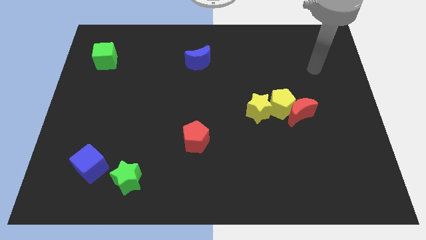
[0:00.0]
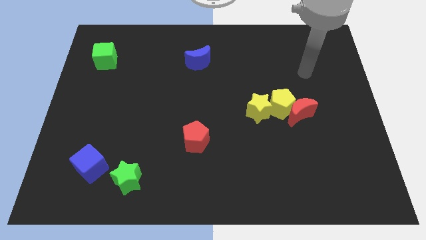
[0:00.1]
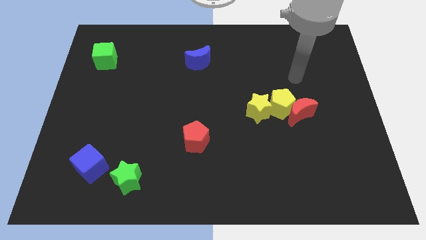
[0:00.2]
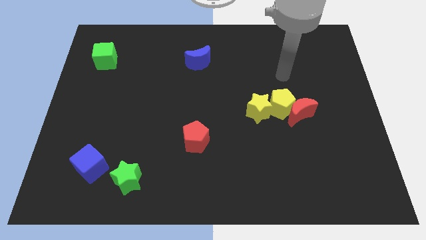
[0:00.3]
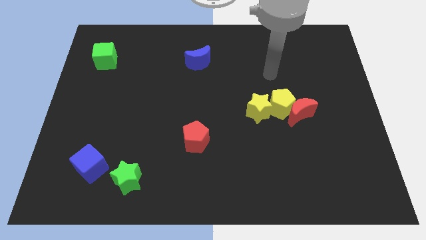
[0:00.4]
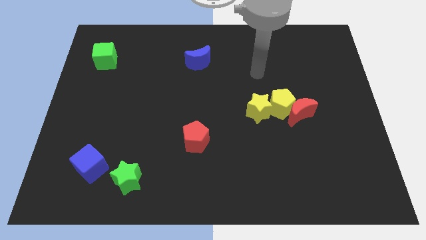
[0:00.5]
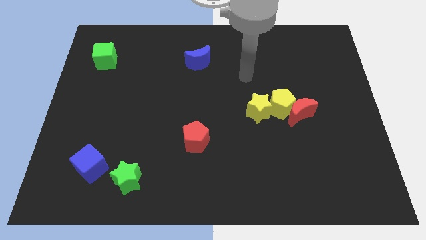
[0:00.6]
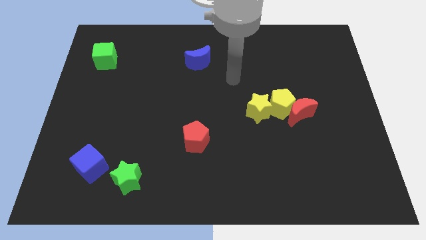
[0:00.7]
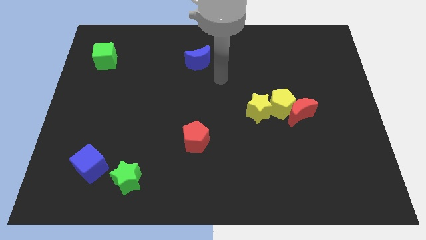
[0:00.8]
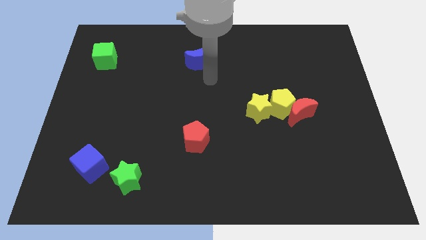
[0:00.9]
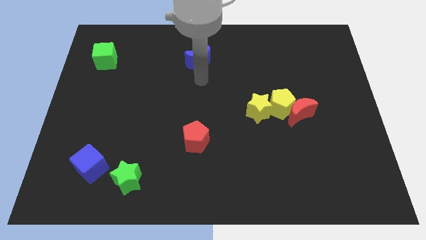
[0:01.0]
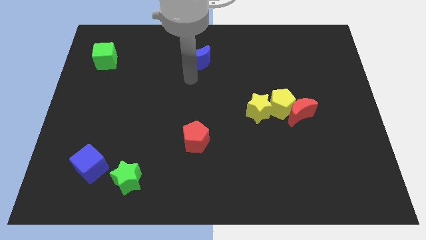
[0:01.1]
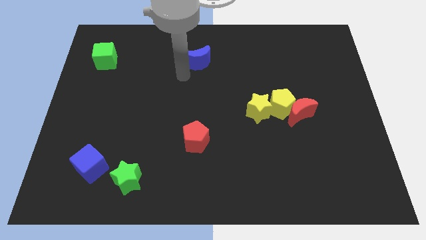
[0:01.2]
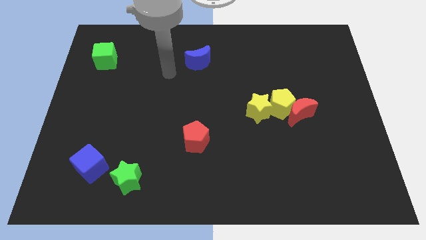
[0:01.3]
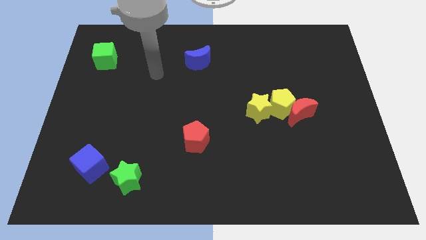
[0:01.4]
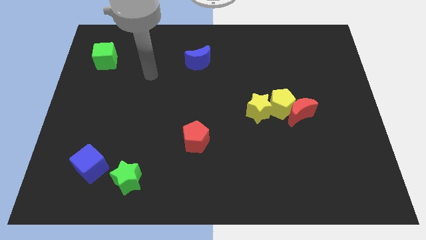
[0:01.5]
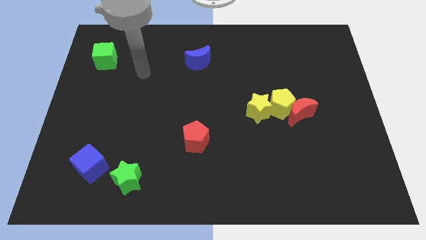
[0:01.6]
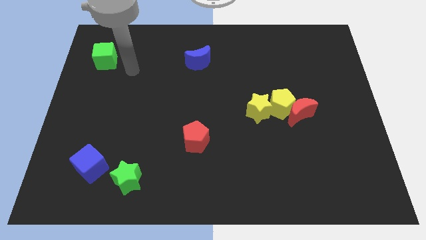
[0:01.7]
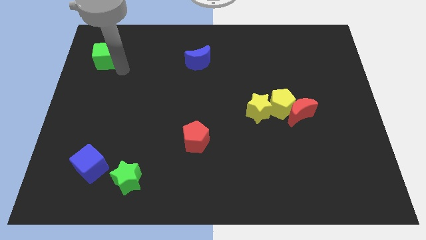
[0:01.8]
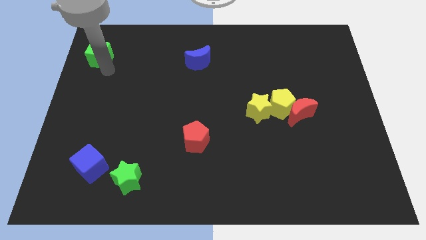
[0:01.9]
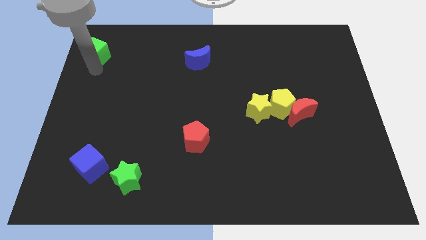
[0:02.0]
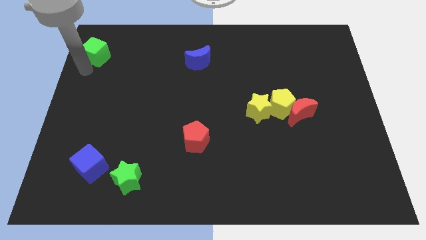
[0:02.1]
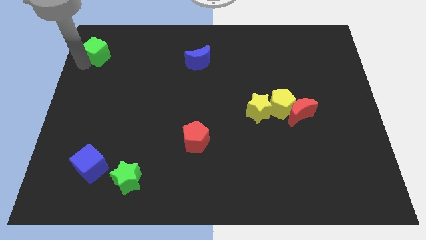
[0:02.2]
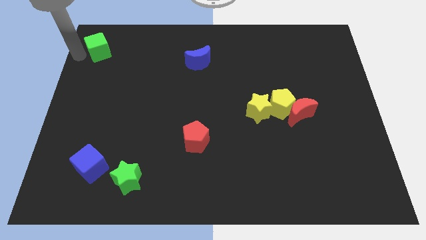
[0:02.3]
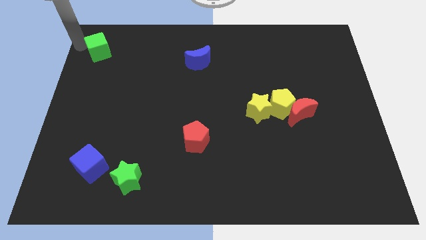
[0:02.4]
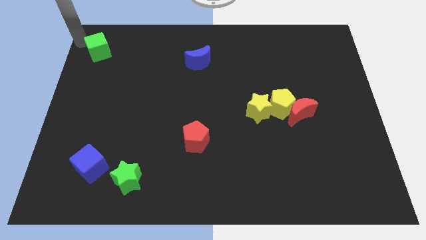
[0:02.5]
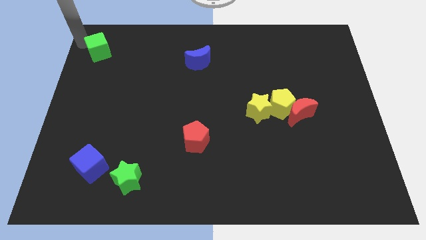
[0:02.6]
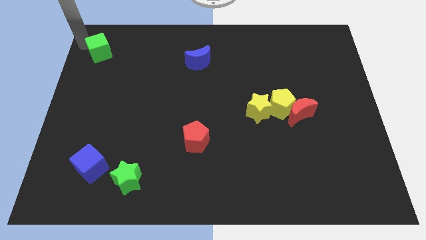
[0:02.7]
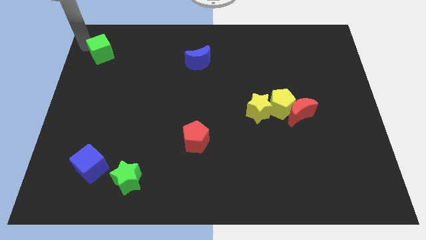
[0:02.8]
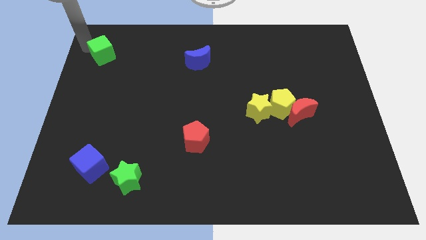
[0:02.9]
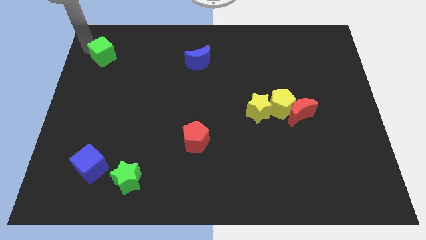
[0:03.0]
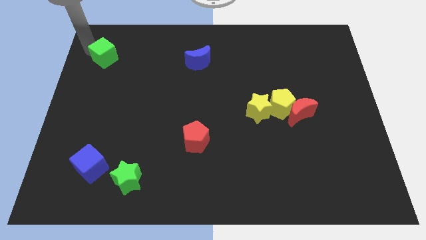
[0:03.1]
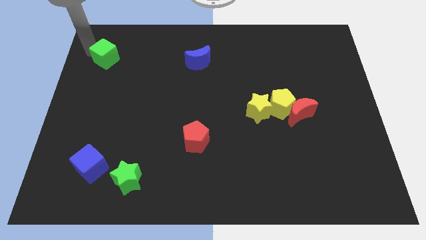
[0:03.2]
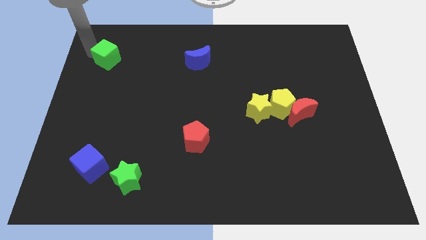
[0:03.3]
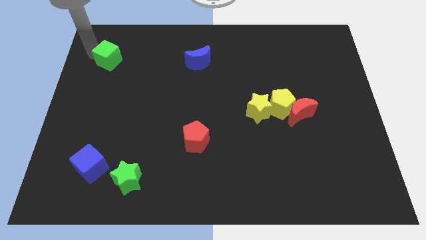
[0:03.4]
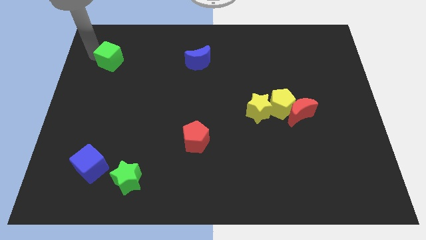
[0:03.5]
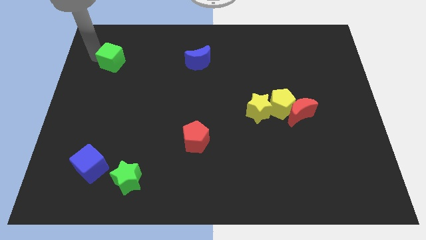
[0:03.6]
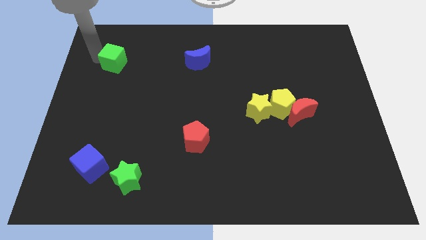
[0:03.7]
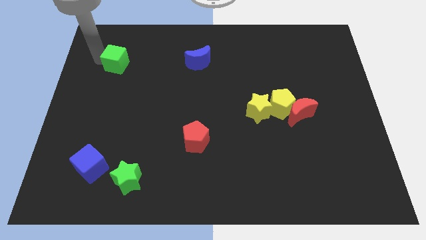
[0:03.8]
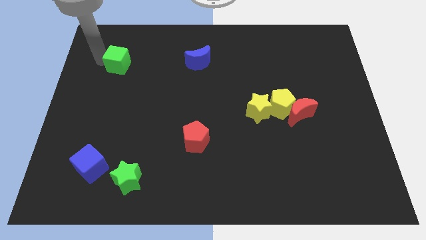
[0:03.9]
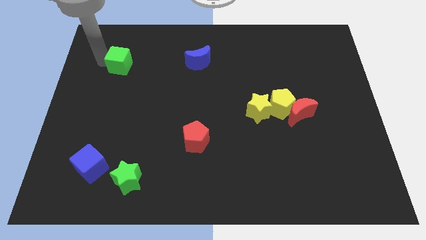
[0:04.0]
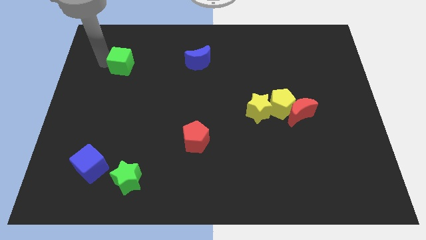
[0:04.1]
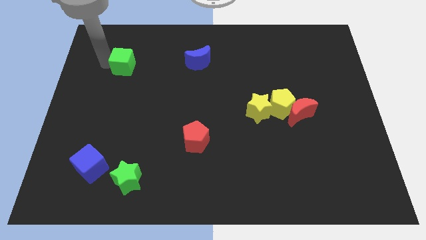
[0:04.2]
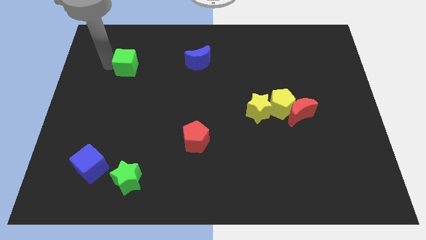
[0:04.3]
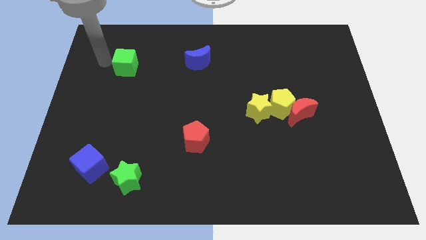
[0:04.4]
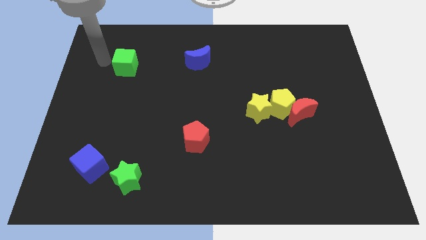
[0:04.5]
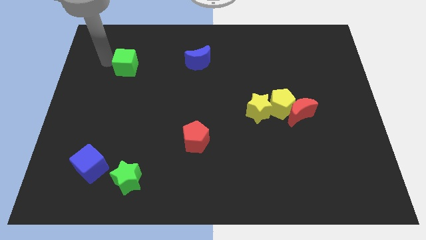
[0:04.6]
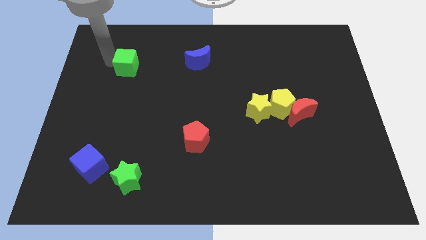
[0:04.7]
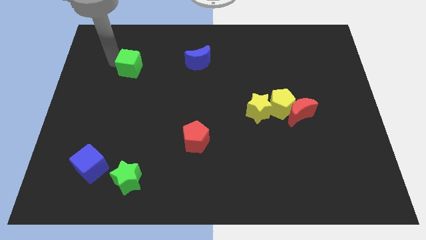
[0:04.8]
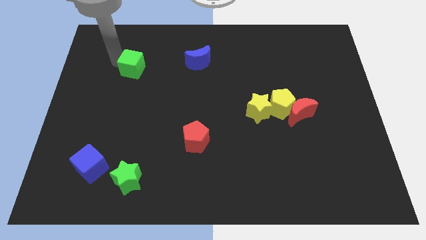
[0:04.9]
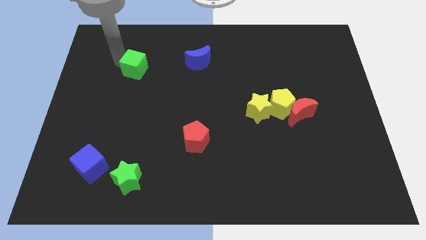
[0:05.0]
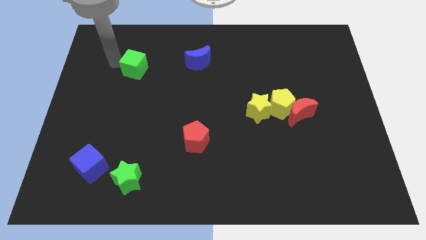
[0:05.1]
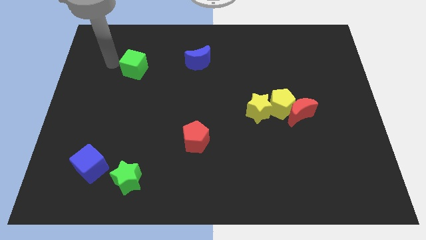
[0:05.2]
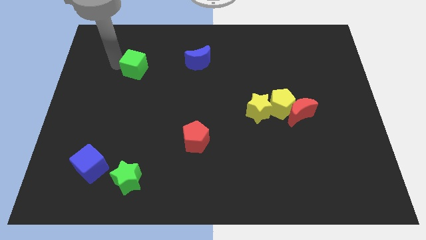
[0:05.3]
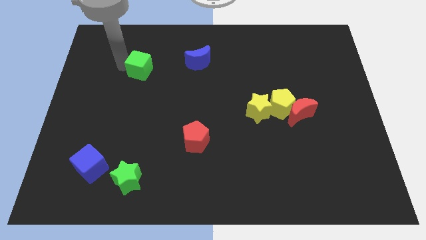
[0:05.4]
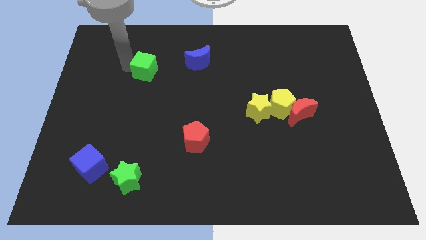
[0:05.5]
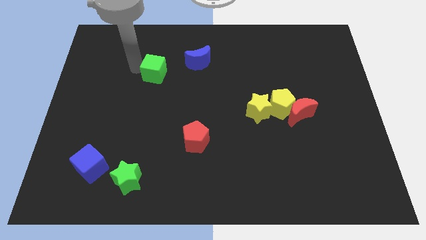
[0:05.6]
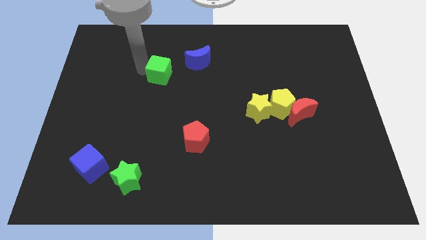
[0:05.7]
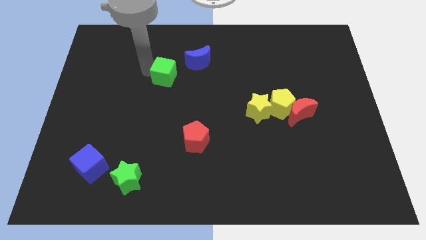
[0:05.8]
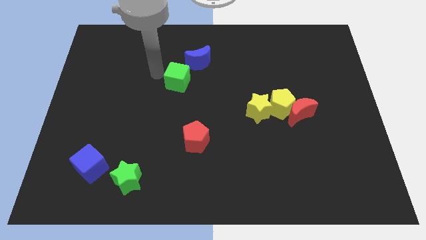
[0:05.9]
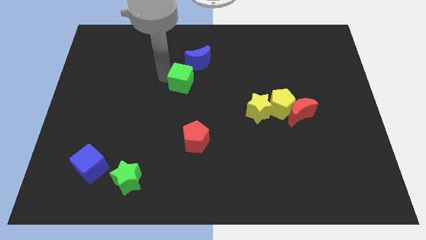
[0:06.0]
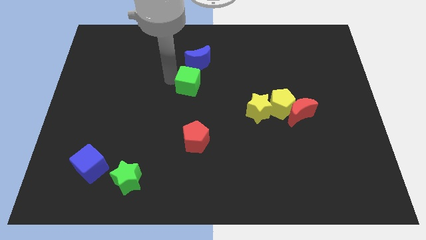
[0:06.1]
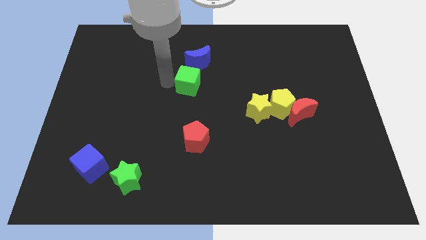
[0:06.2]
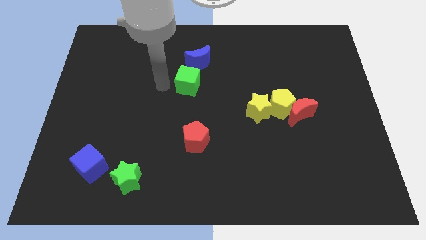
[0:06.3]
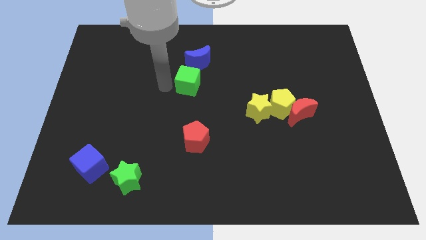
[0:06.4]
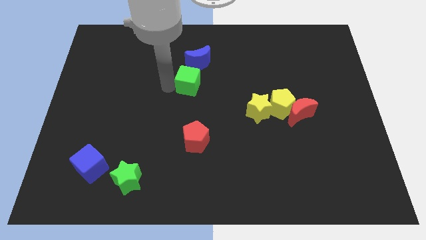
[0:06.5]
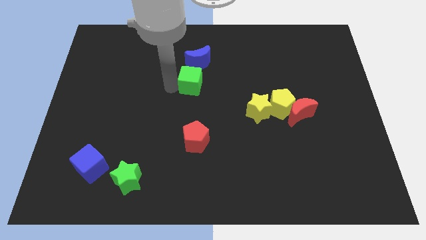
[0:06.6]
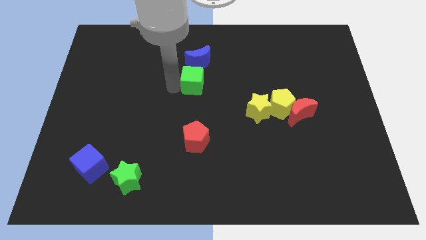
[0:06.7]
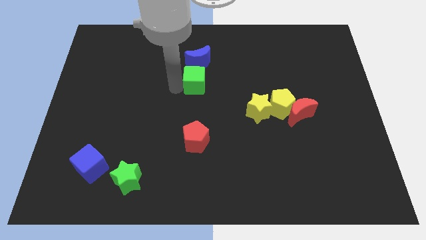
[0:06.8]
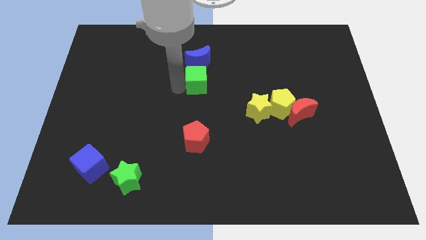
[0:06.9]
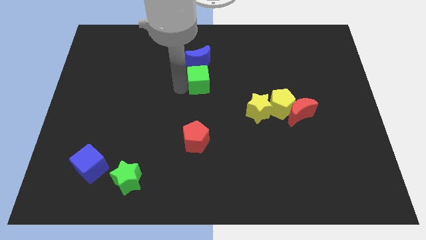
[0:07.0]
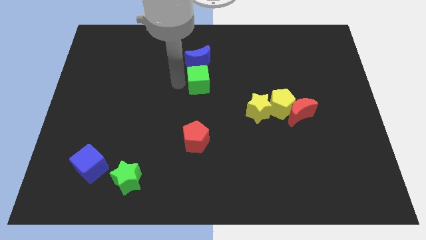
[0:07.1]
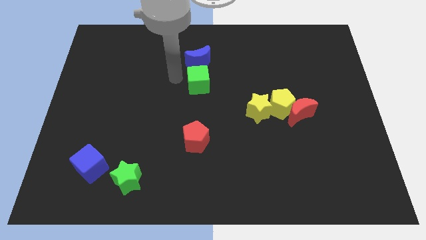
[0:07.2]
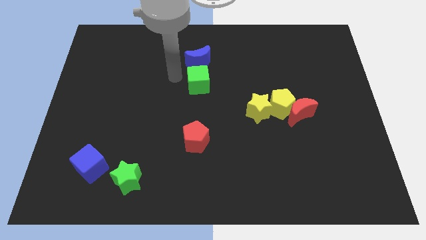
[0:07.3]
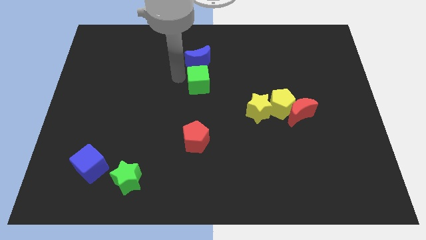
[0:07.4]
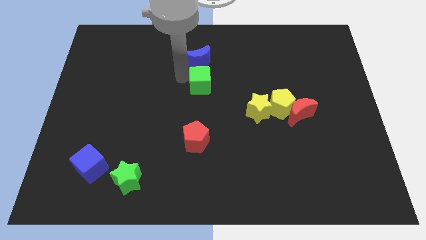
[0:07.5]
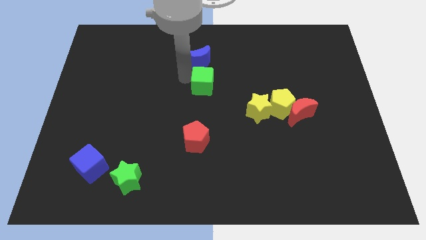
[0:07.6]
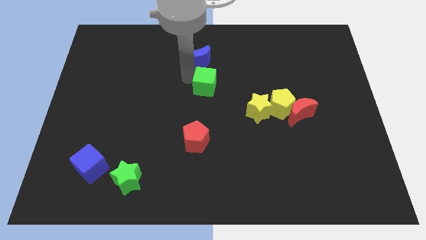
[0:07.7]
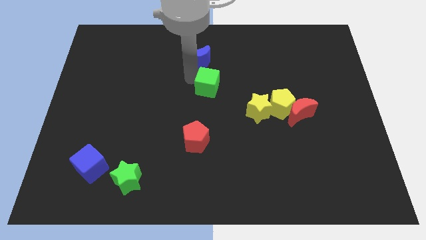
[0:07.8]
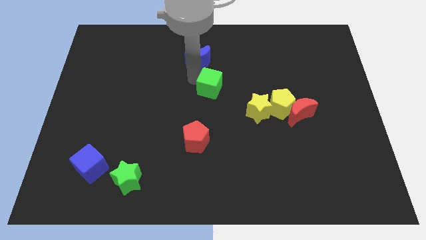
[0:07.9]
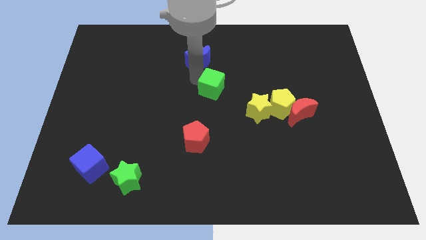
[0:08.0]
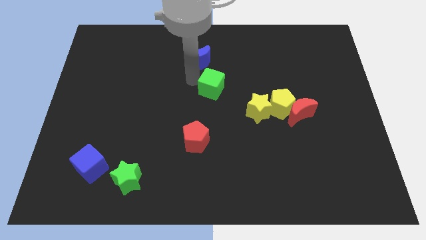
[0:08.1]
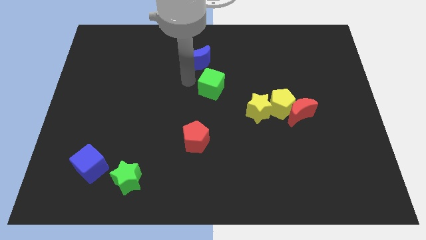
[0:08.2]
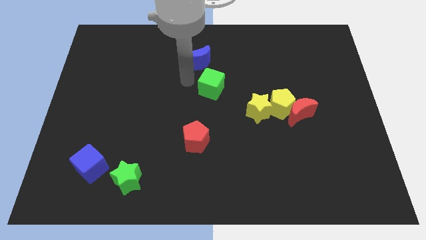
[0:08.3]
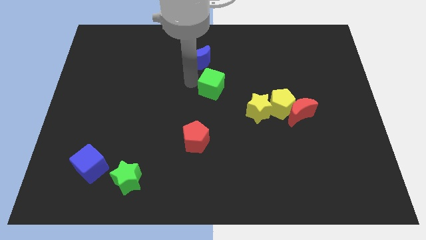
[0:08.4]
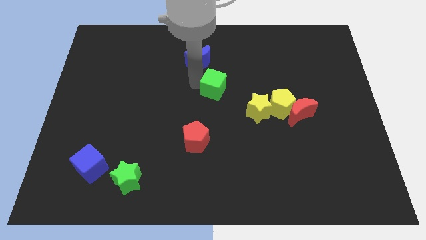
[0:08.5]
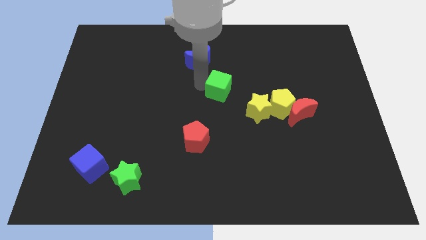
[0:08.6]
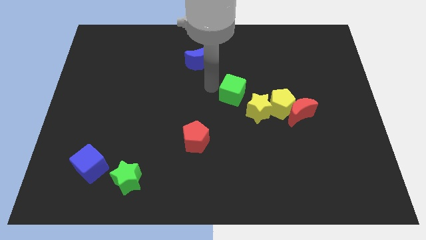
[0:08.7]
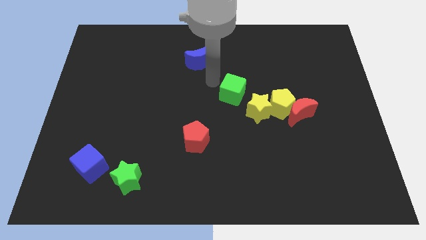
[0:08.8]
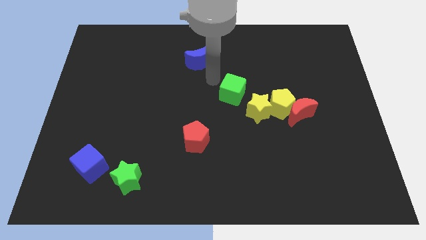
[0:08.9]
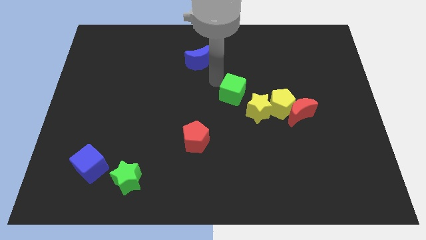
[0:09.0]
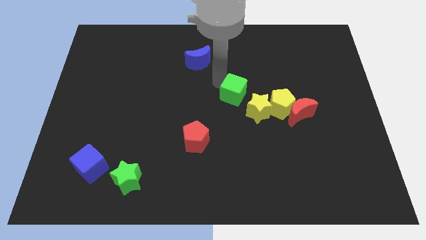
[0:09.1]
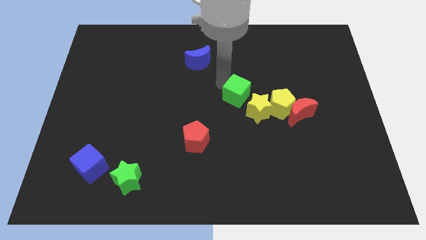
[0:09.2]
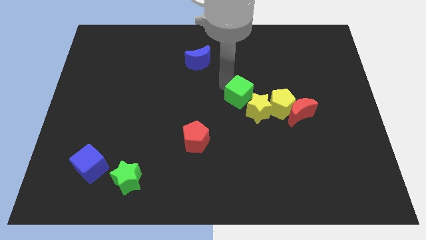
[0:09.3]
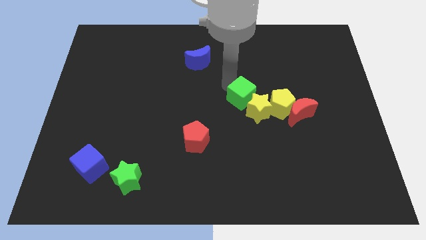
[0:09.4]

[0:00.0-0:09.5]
put the green cube next to the yellow star
